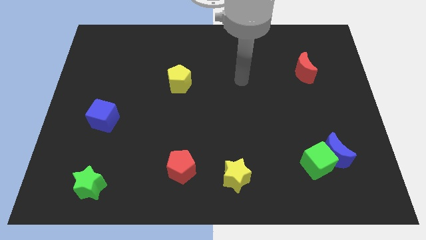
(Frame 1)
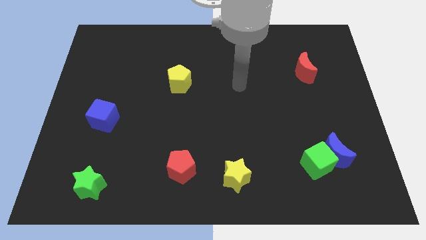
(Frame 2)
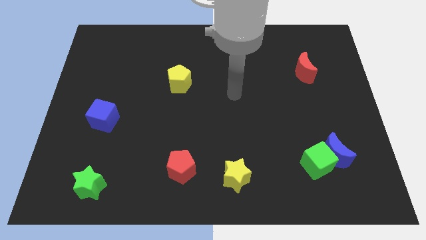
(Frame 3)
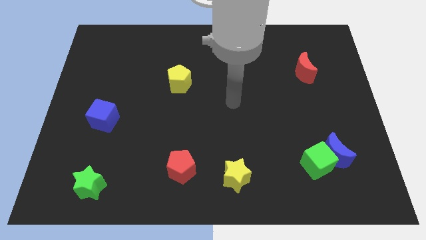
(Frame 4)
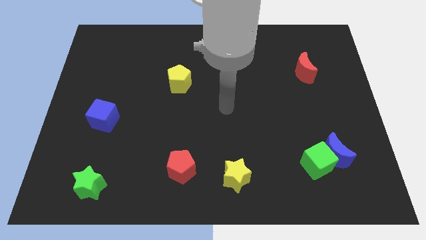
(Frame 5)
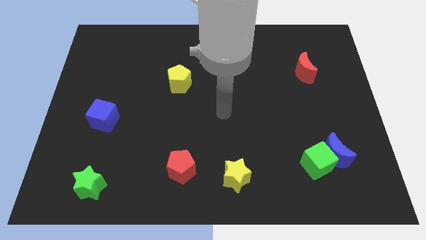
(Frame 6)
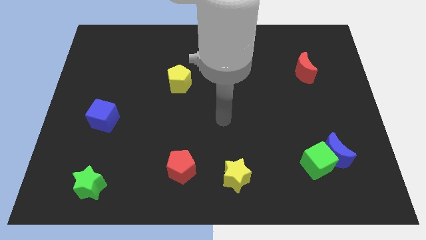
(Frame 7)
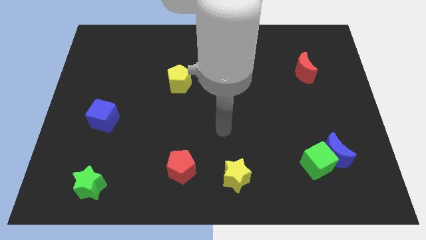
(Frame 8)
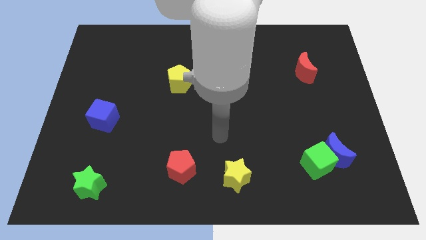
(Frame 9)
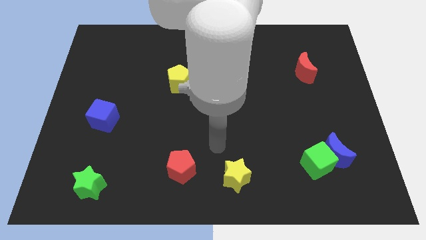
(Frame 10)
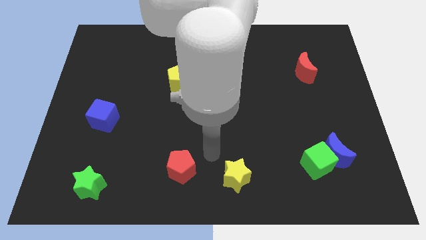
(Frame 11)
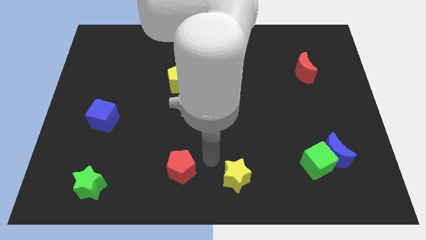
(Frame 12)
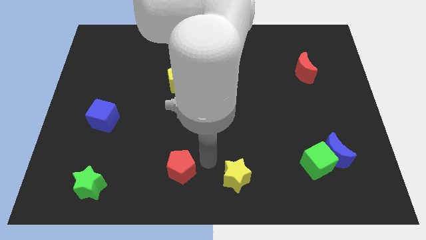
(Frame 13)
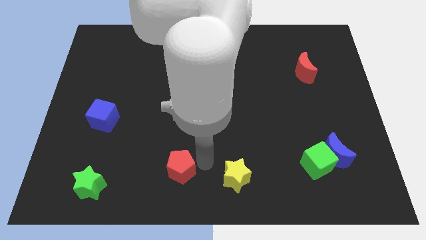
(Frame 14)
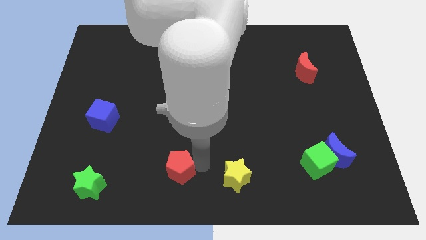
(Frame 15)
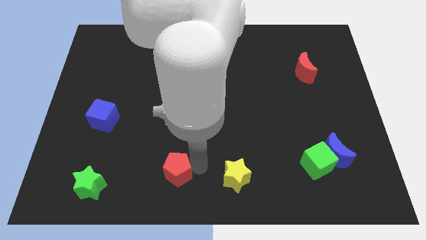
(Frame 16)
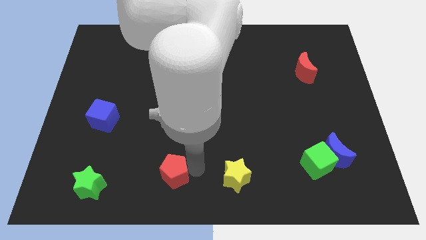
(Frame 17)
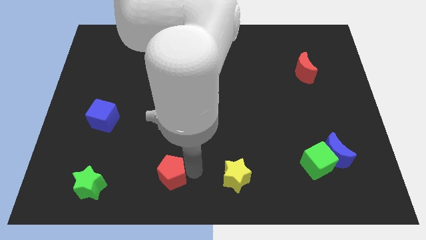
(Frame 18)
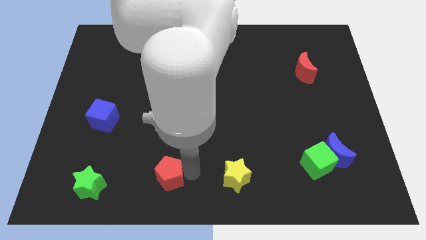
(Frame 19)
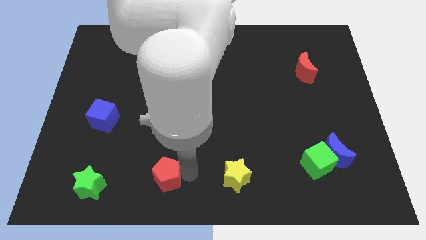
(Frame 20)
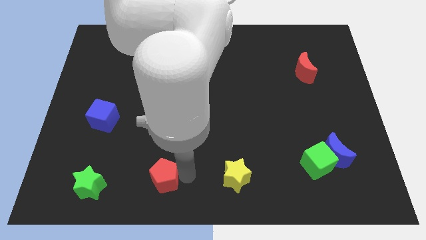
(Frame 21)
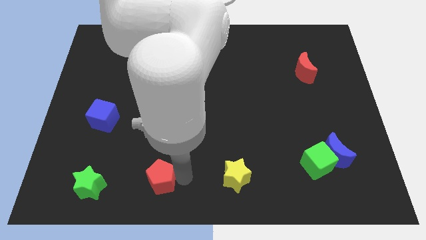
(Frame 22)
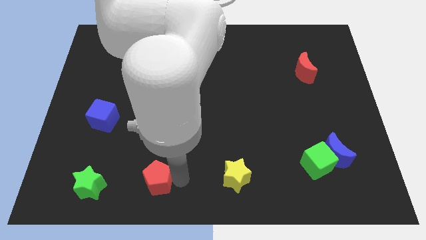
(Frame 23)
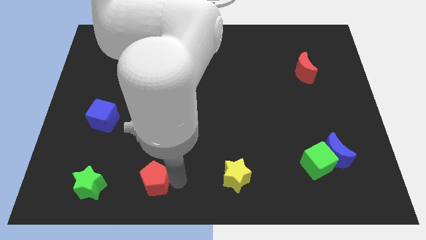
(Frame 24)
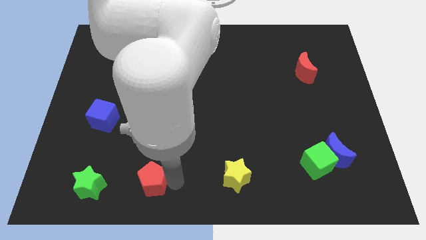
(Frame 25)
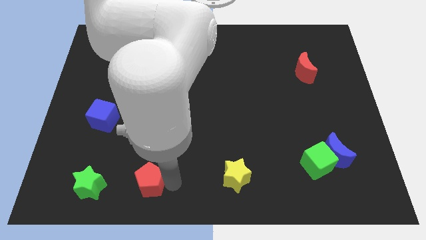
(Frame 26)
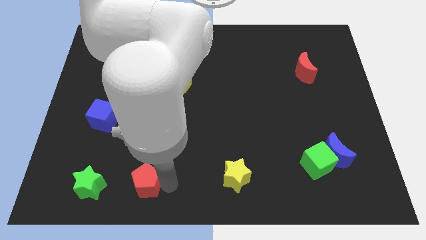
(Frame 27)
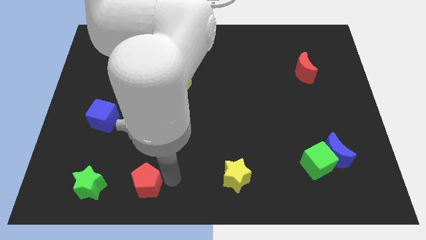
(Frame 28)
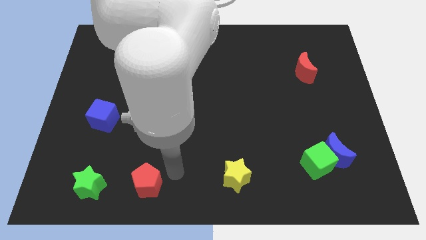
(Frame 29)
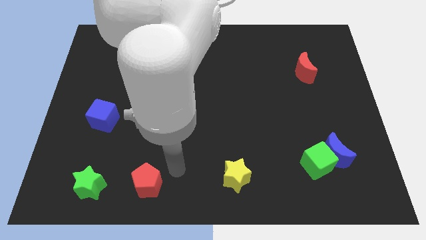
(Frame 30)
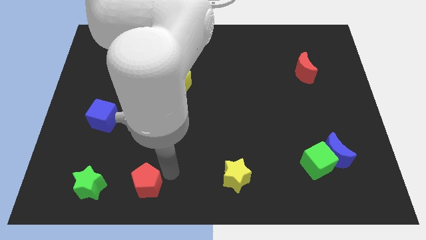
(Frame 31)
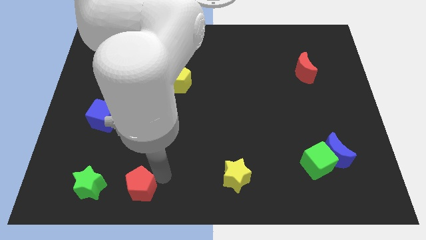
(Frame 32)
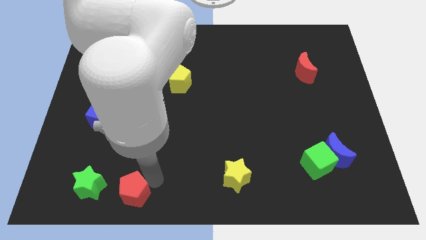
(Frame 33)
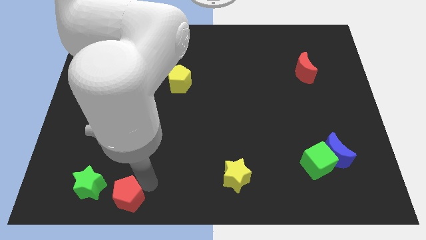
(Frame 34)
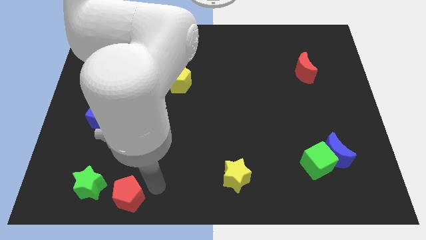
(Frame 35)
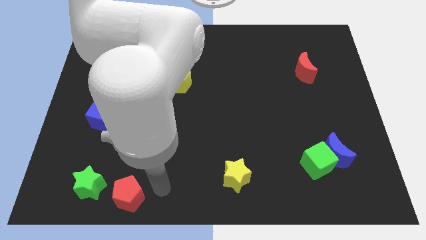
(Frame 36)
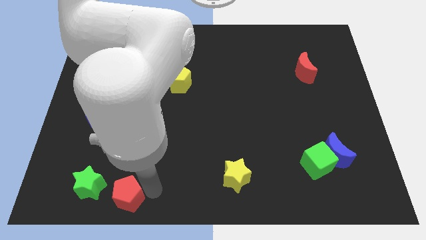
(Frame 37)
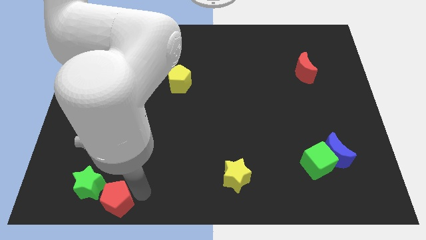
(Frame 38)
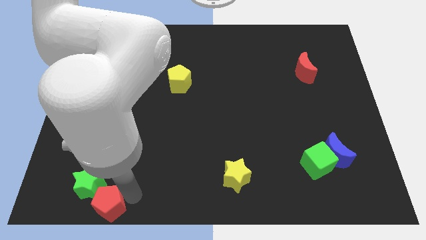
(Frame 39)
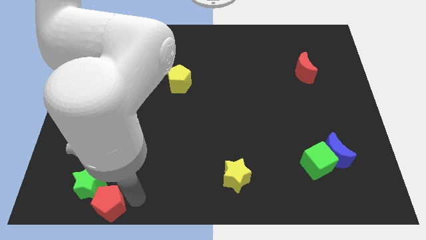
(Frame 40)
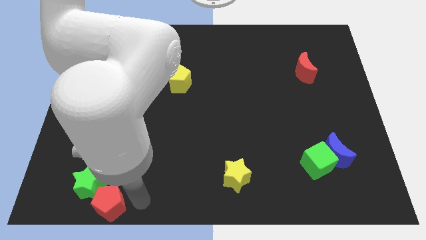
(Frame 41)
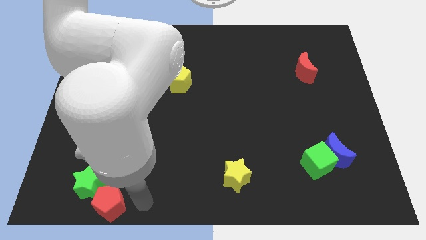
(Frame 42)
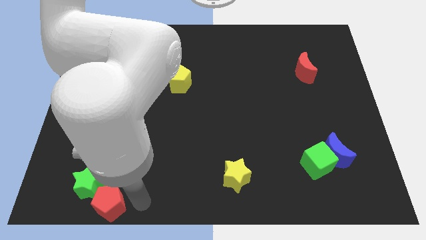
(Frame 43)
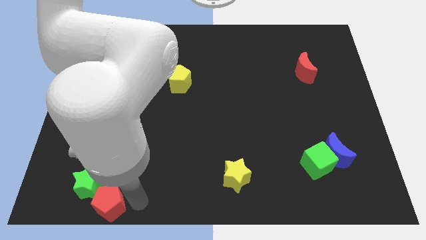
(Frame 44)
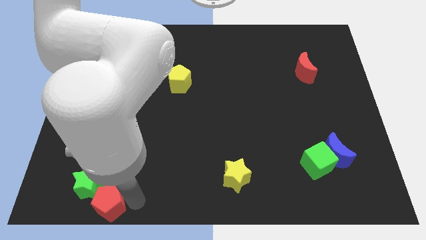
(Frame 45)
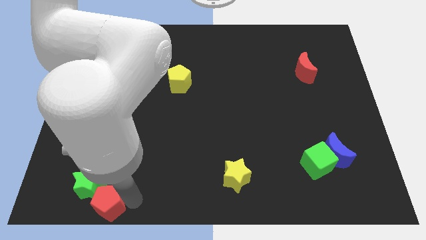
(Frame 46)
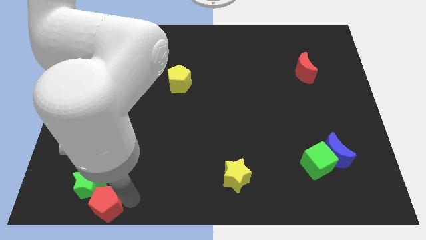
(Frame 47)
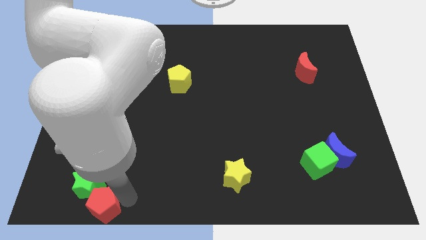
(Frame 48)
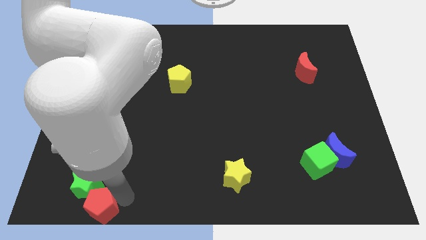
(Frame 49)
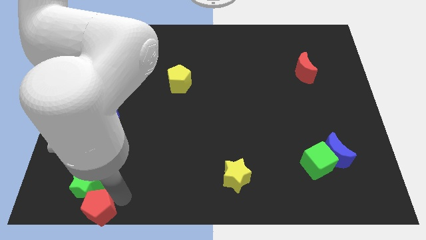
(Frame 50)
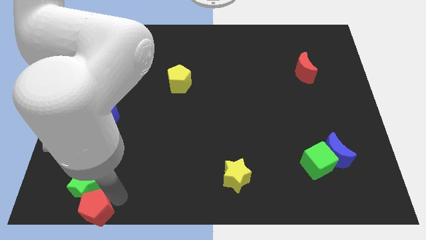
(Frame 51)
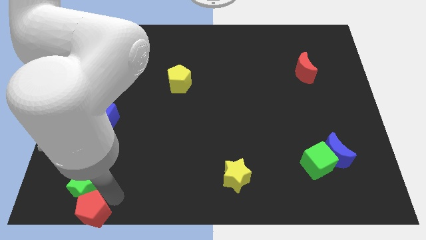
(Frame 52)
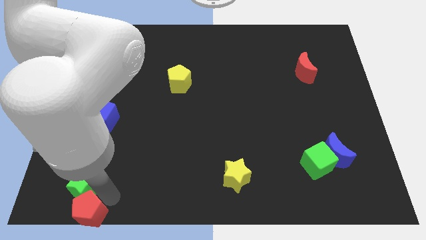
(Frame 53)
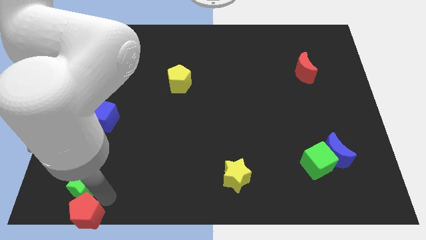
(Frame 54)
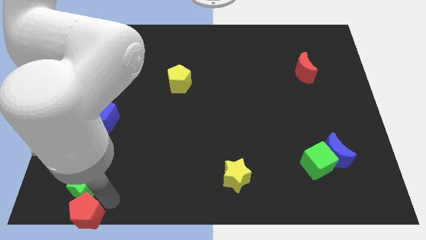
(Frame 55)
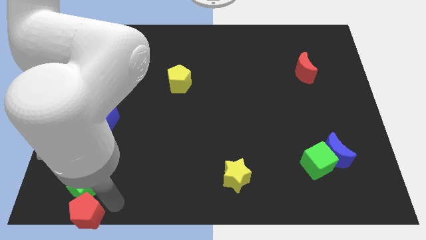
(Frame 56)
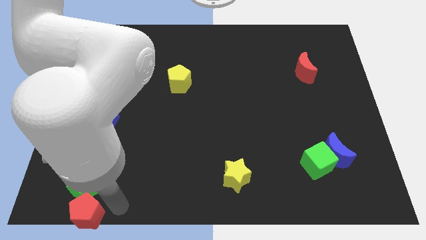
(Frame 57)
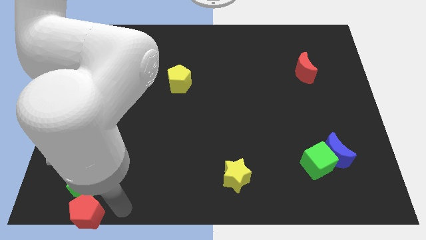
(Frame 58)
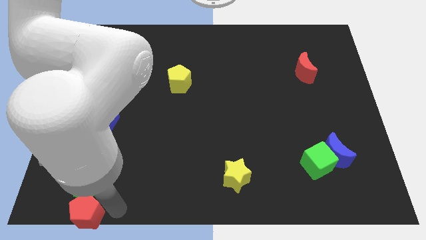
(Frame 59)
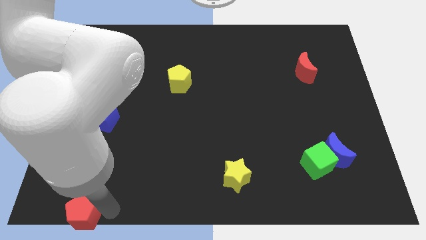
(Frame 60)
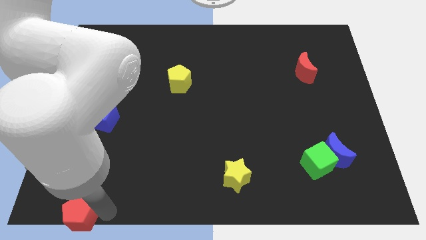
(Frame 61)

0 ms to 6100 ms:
slide the red pentagon to the bottom left of the board

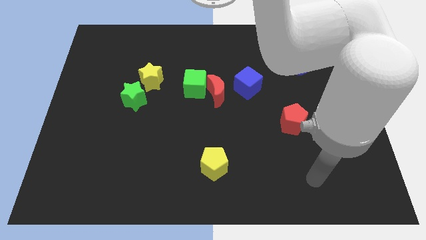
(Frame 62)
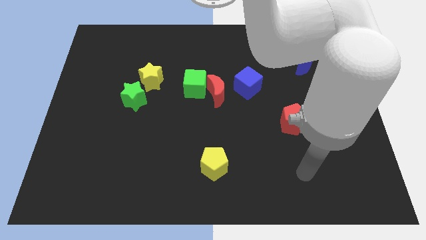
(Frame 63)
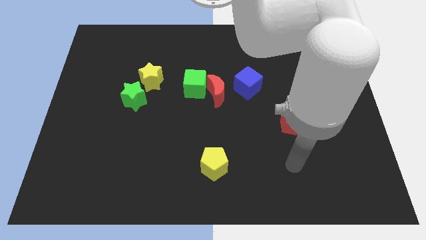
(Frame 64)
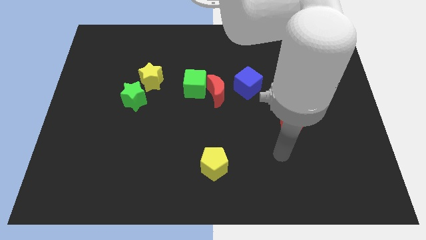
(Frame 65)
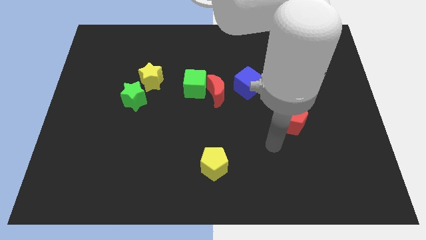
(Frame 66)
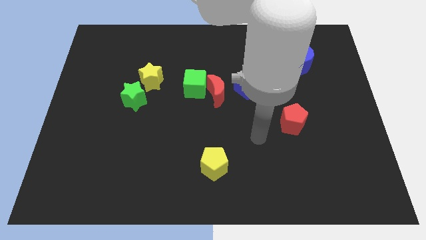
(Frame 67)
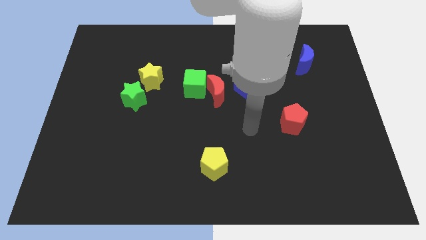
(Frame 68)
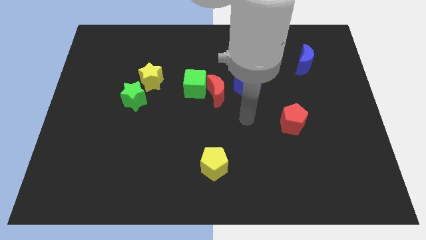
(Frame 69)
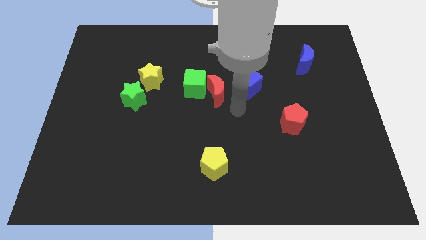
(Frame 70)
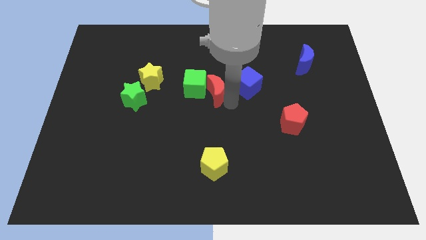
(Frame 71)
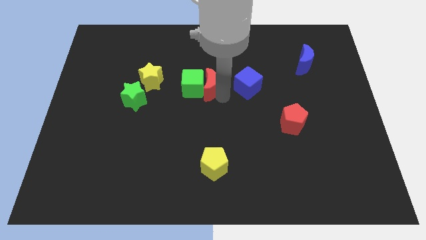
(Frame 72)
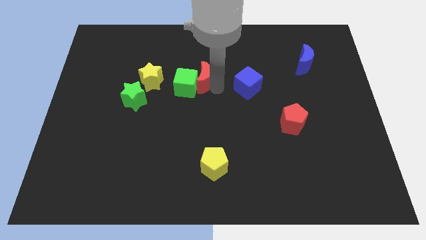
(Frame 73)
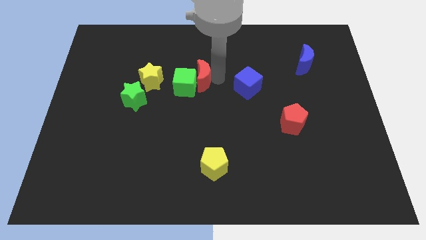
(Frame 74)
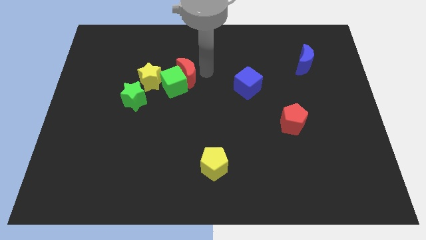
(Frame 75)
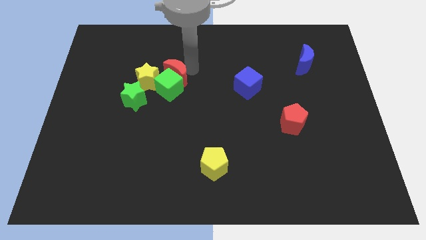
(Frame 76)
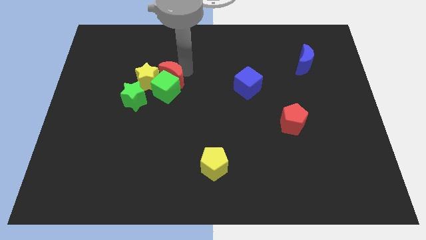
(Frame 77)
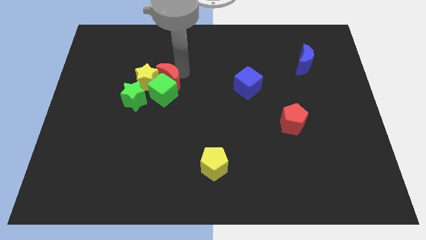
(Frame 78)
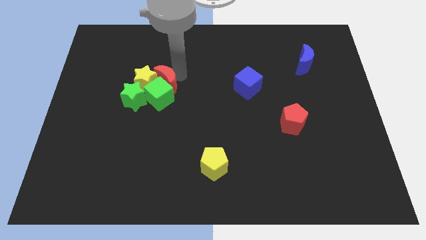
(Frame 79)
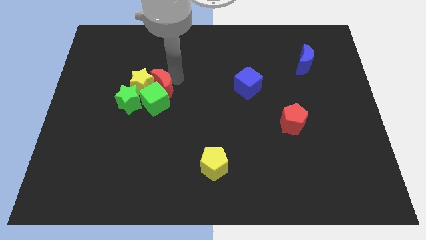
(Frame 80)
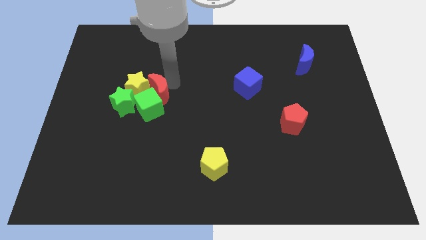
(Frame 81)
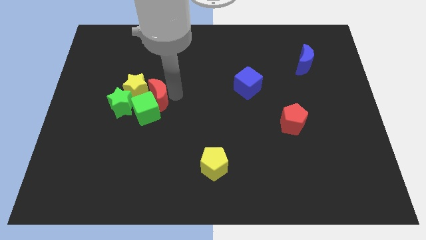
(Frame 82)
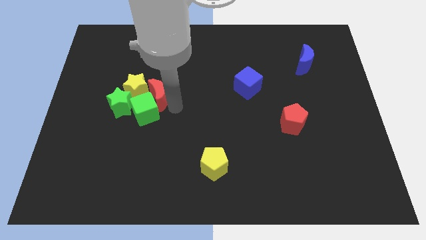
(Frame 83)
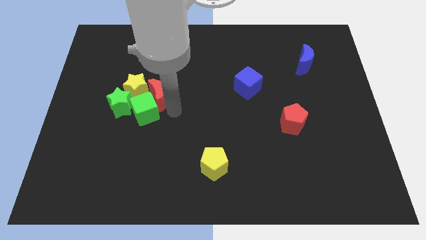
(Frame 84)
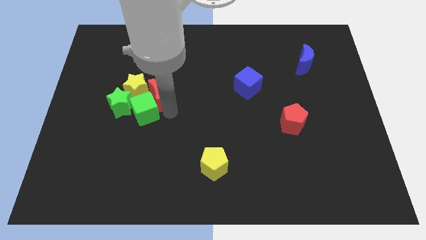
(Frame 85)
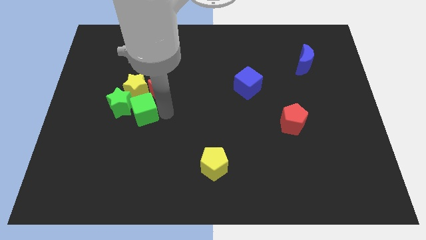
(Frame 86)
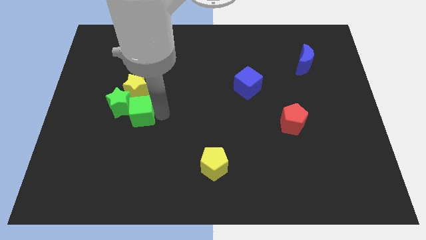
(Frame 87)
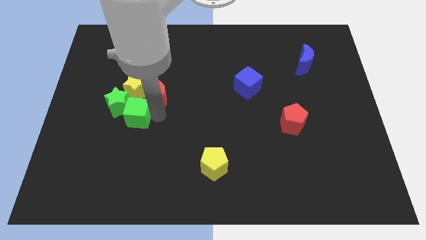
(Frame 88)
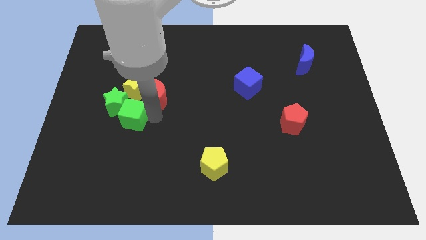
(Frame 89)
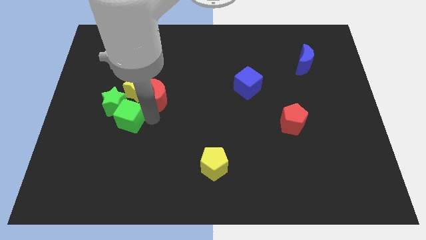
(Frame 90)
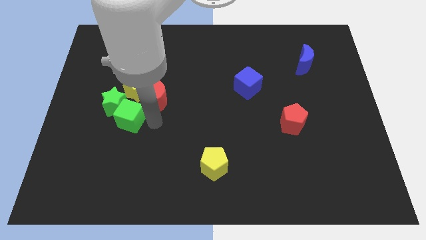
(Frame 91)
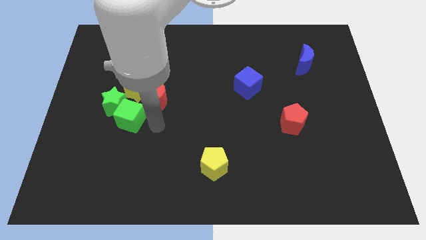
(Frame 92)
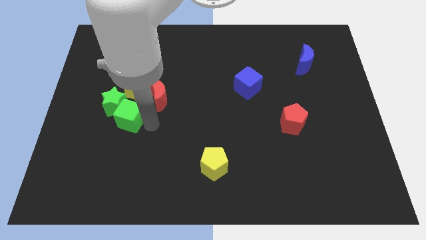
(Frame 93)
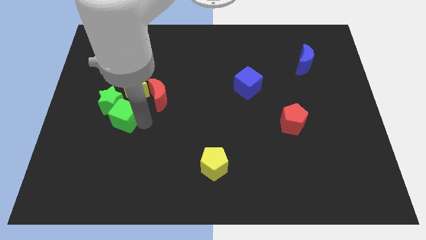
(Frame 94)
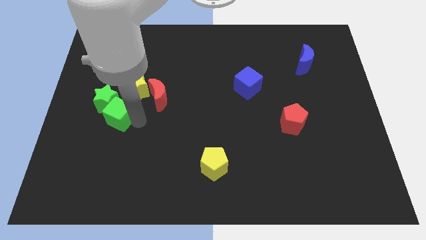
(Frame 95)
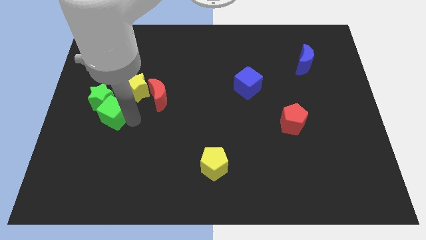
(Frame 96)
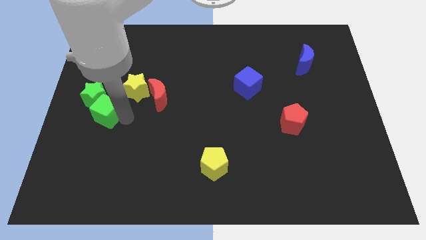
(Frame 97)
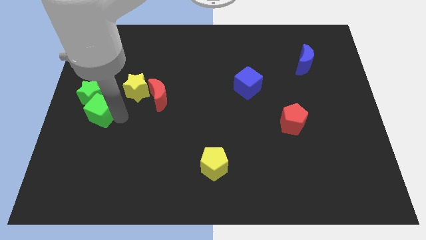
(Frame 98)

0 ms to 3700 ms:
slide the green cube to the left side
